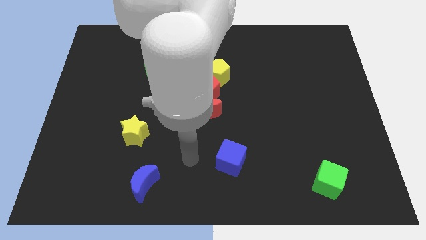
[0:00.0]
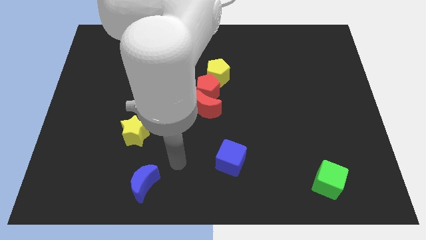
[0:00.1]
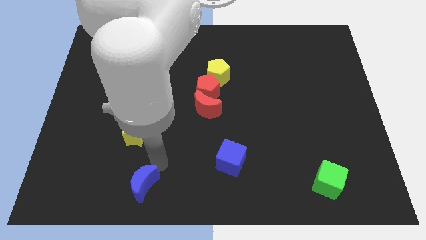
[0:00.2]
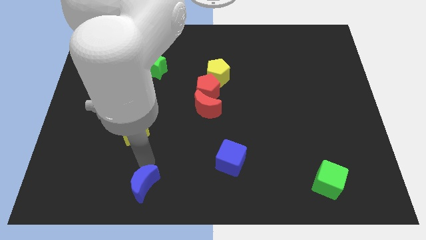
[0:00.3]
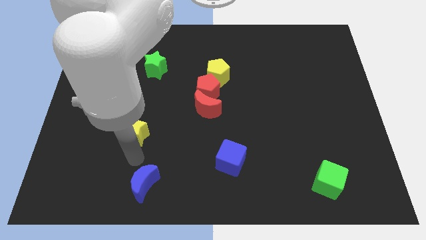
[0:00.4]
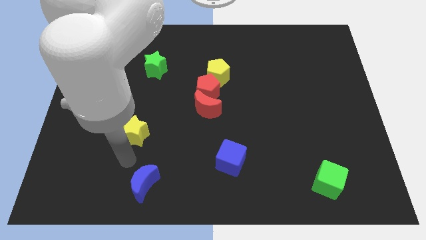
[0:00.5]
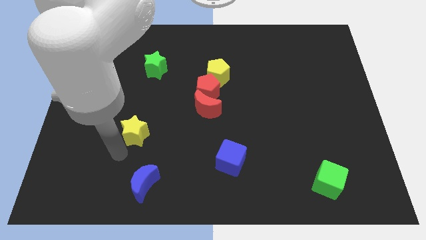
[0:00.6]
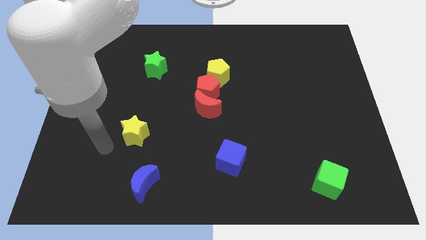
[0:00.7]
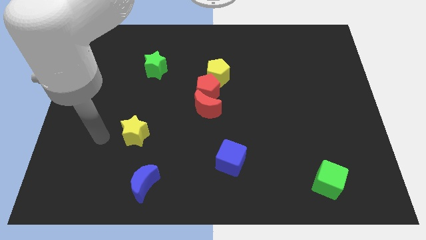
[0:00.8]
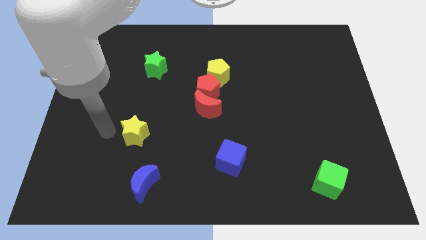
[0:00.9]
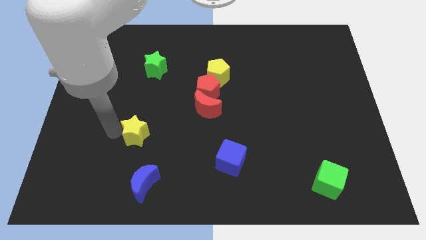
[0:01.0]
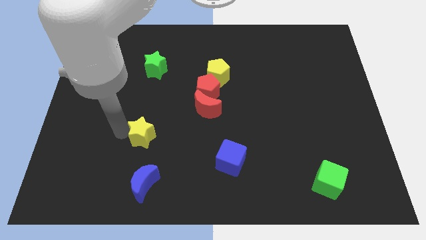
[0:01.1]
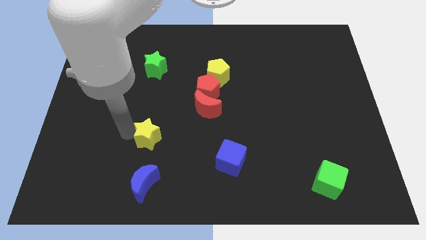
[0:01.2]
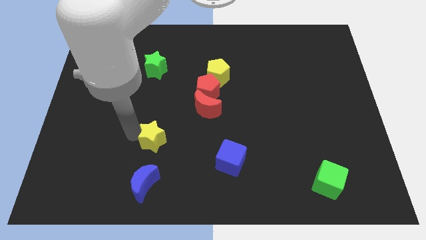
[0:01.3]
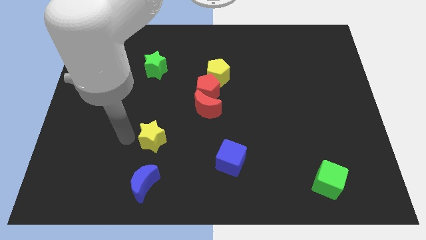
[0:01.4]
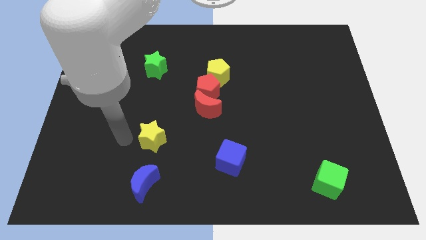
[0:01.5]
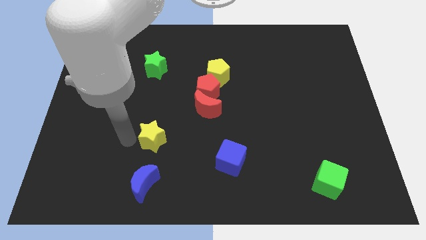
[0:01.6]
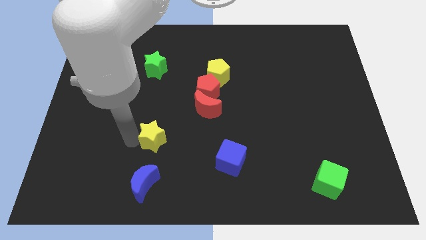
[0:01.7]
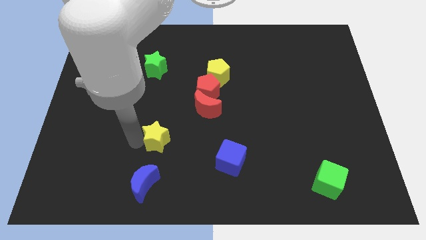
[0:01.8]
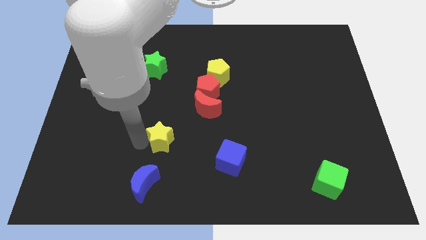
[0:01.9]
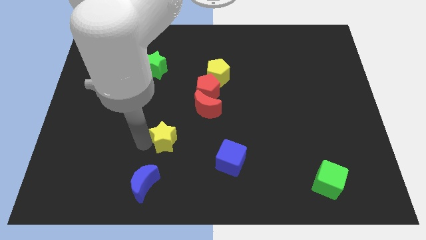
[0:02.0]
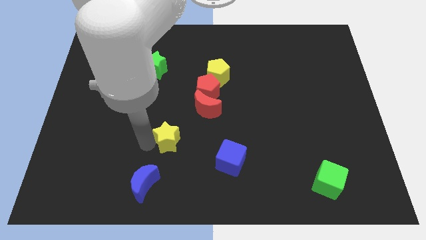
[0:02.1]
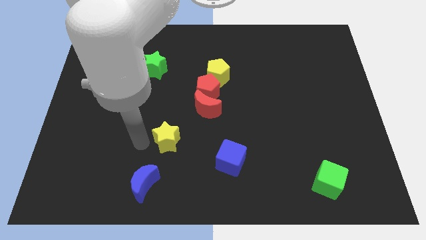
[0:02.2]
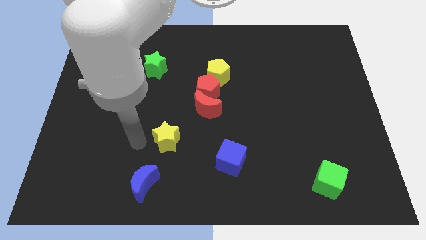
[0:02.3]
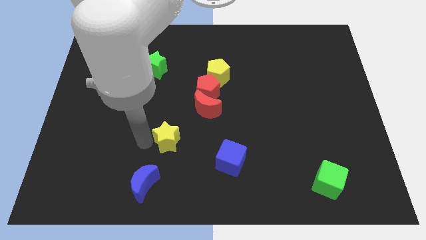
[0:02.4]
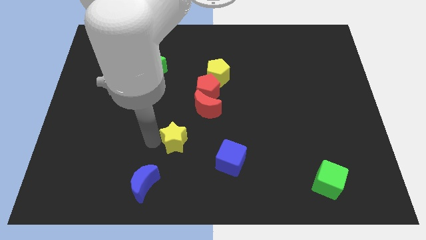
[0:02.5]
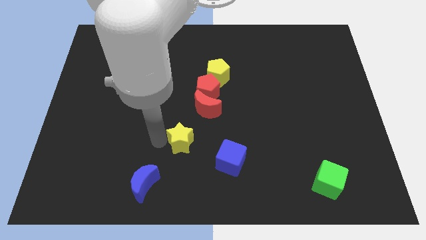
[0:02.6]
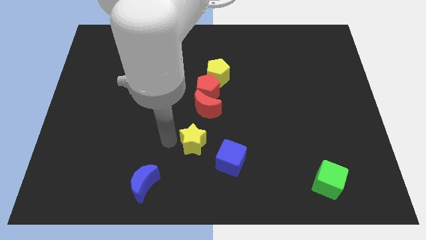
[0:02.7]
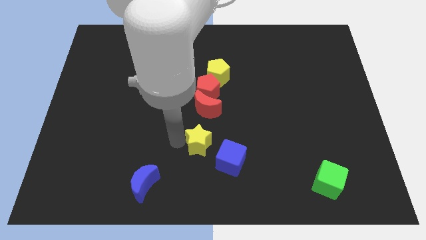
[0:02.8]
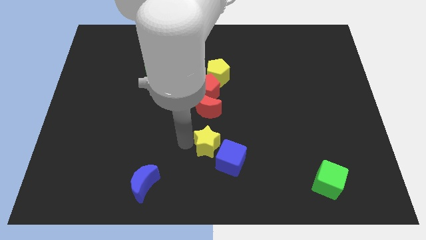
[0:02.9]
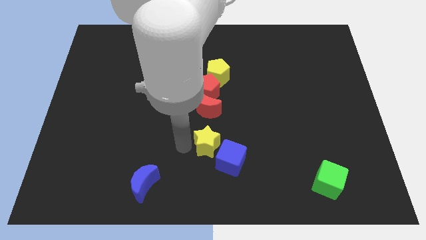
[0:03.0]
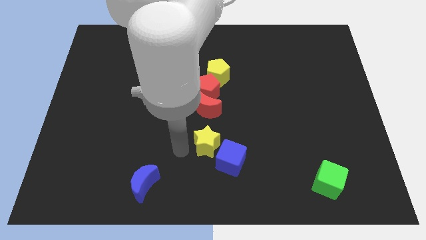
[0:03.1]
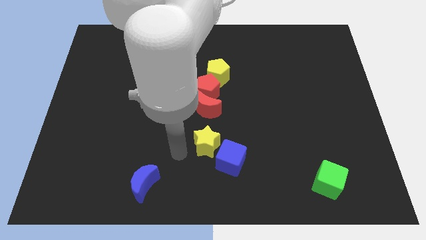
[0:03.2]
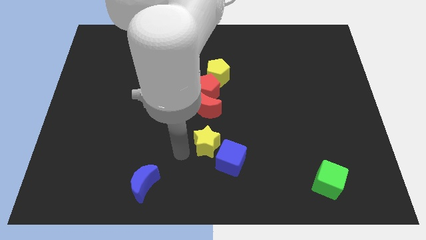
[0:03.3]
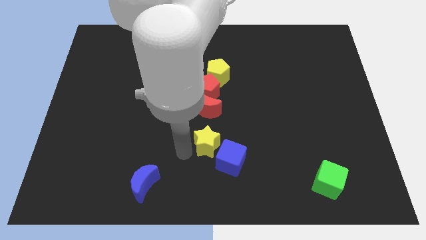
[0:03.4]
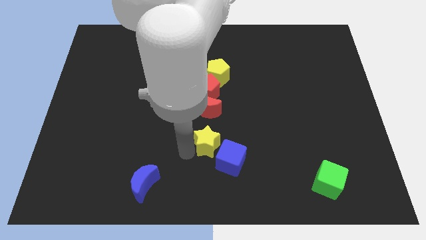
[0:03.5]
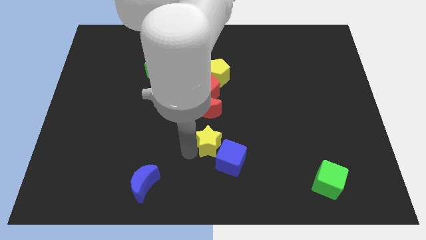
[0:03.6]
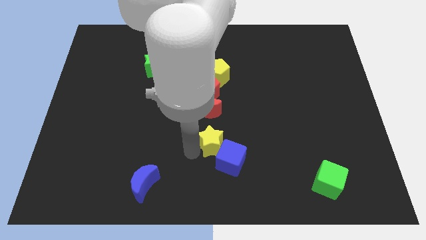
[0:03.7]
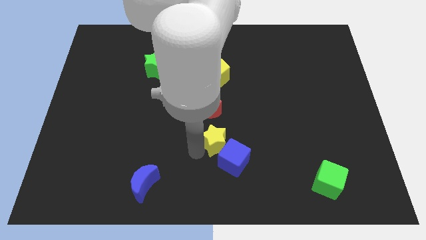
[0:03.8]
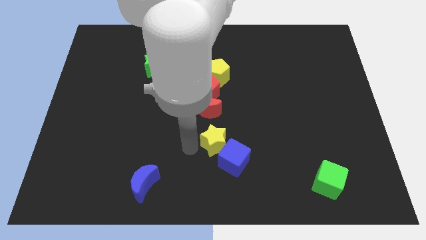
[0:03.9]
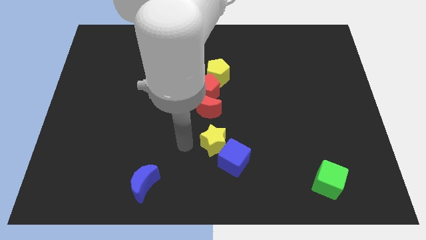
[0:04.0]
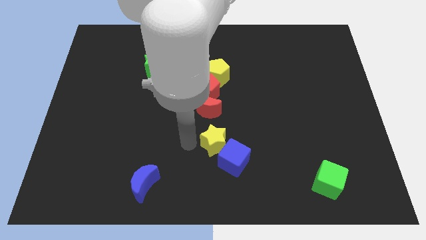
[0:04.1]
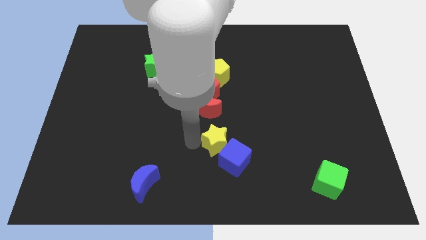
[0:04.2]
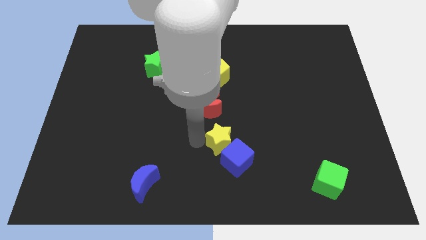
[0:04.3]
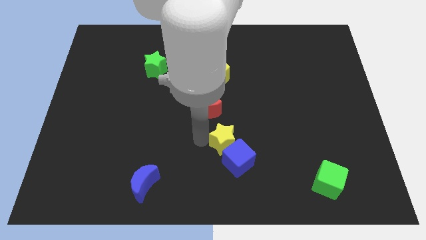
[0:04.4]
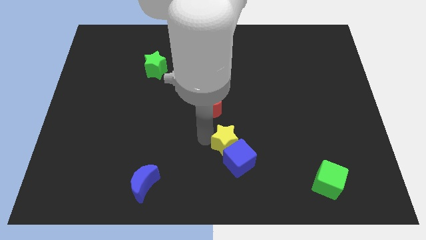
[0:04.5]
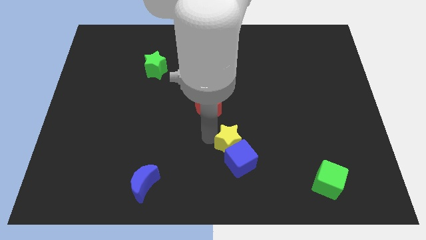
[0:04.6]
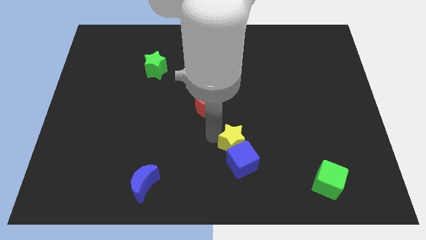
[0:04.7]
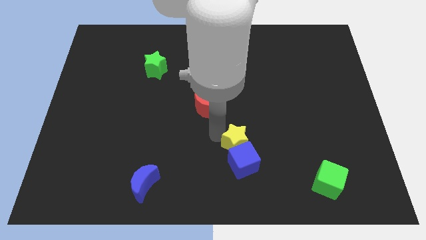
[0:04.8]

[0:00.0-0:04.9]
slide the yellow star to the top right side of the blue cube

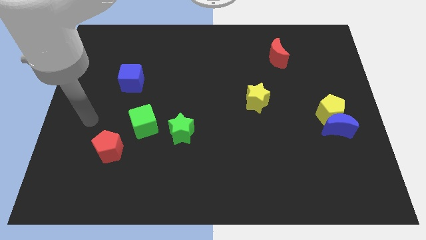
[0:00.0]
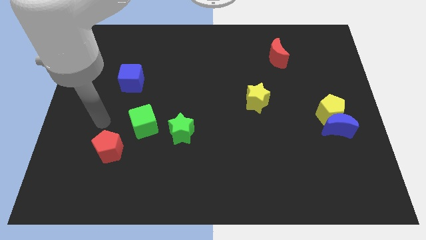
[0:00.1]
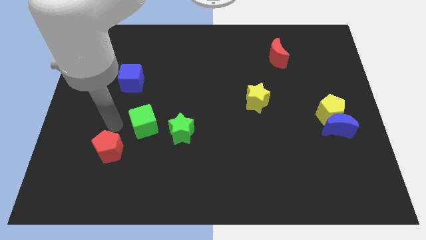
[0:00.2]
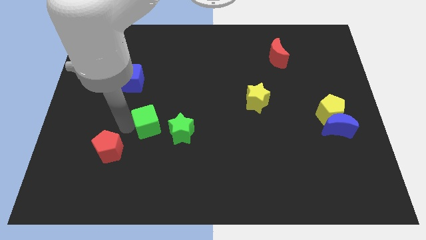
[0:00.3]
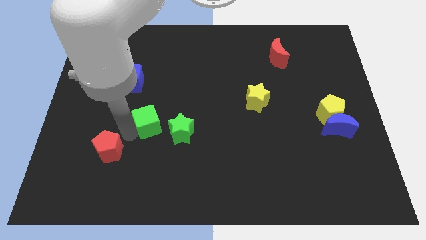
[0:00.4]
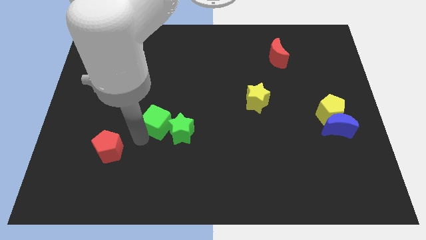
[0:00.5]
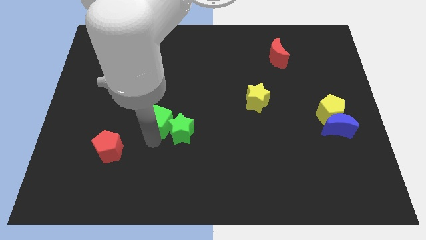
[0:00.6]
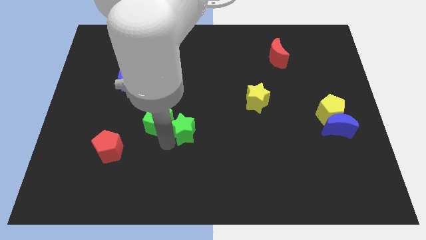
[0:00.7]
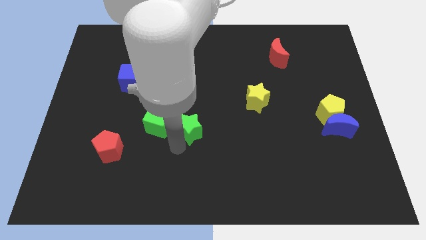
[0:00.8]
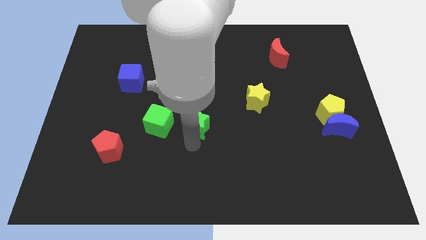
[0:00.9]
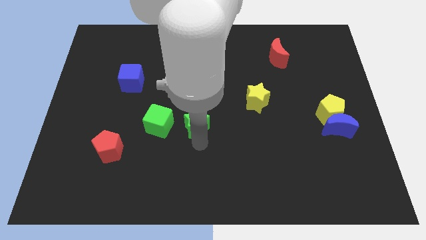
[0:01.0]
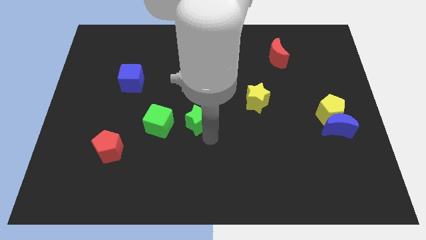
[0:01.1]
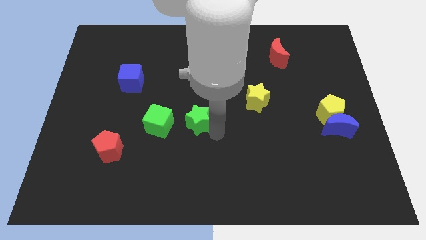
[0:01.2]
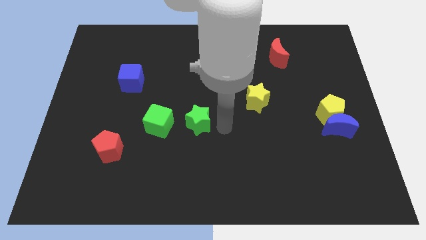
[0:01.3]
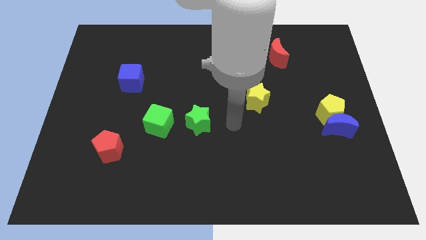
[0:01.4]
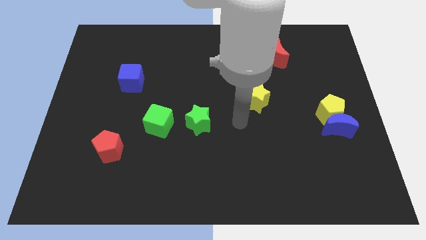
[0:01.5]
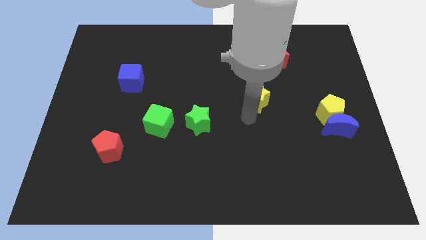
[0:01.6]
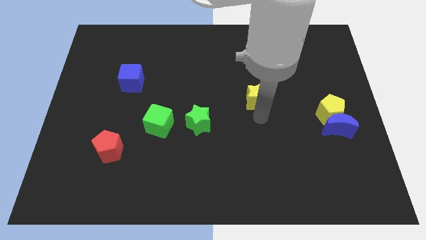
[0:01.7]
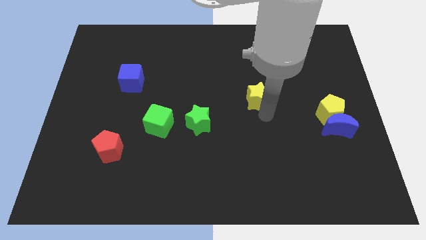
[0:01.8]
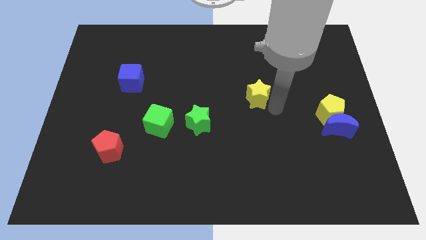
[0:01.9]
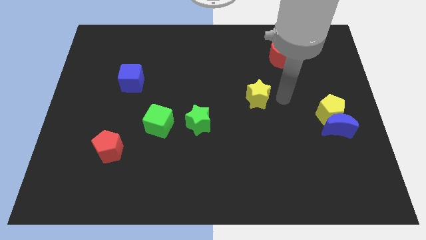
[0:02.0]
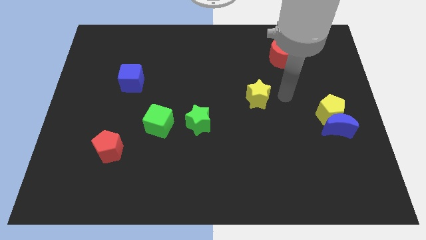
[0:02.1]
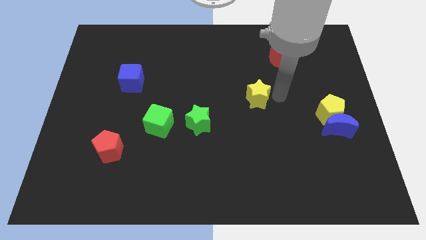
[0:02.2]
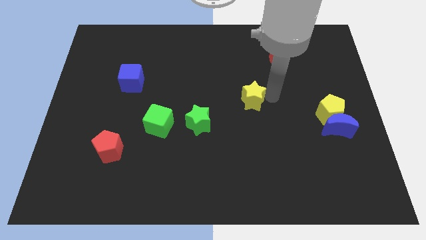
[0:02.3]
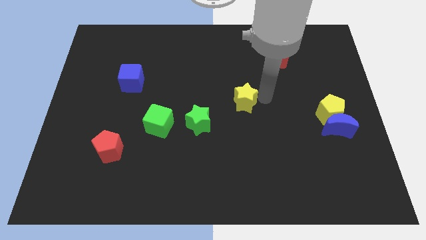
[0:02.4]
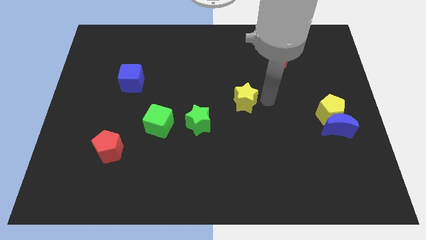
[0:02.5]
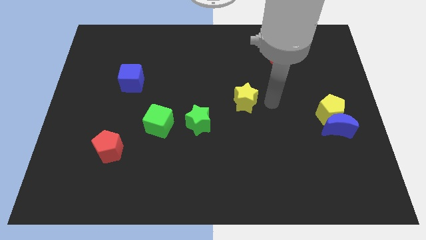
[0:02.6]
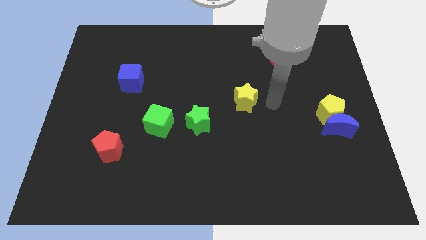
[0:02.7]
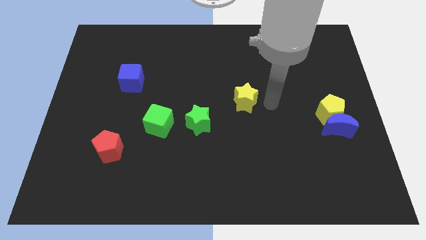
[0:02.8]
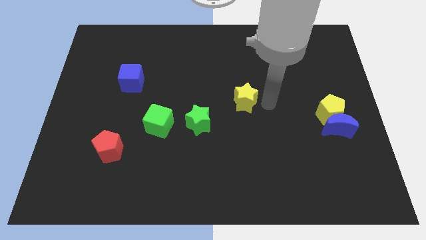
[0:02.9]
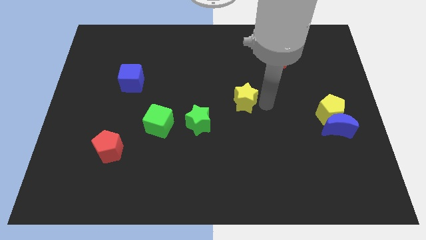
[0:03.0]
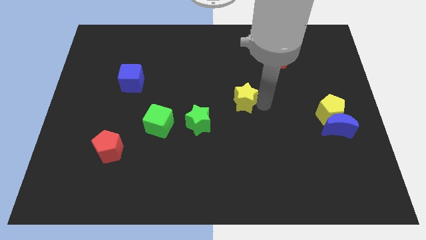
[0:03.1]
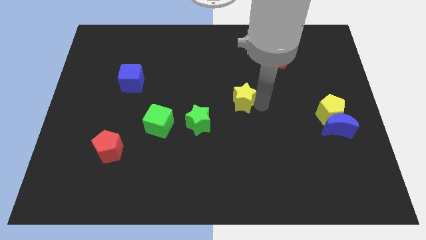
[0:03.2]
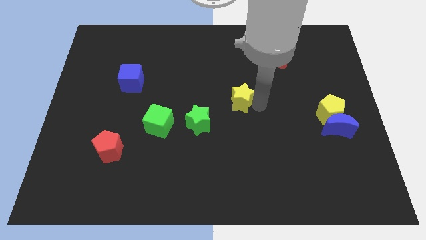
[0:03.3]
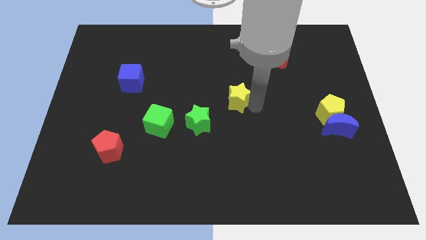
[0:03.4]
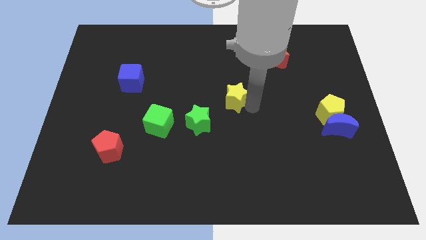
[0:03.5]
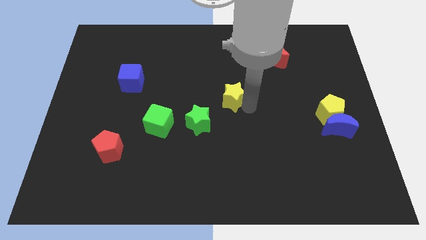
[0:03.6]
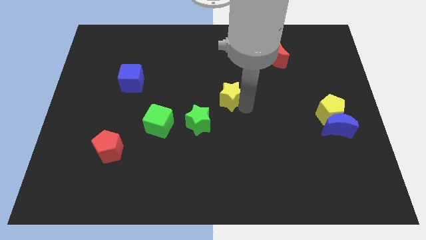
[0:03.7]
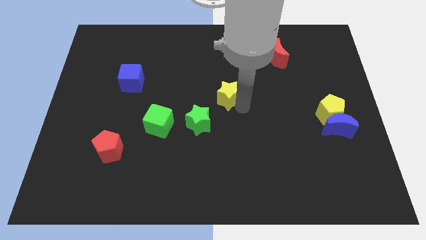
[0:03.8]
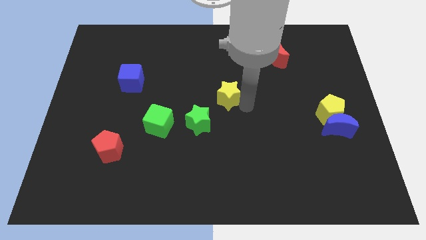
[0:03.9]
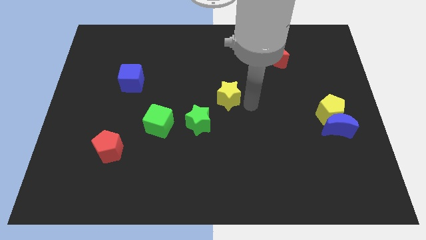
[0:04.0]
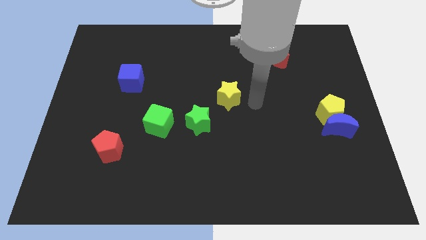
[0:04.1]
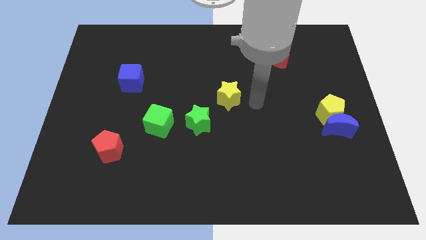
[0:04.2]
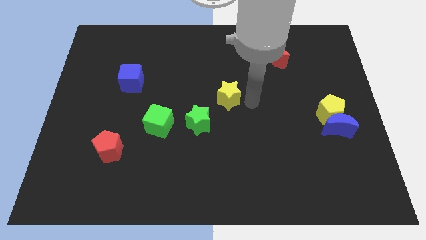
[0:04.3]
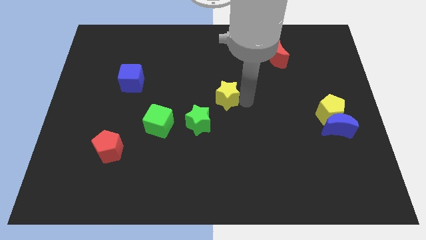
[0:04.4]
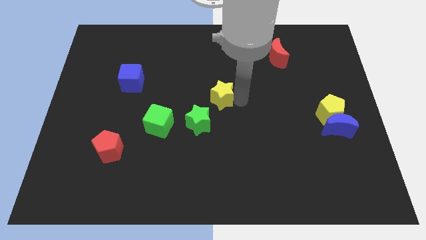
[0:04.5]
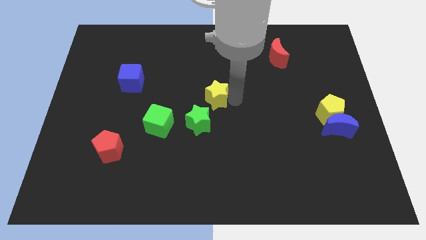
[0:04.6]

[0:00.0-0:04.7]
slide the yellow star to the top of the green star
